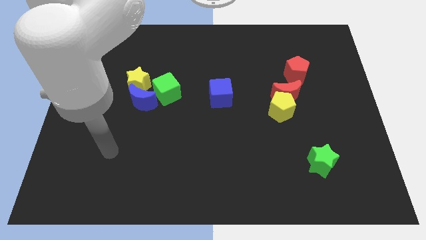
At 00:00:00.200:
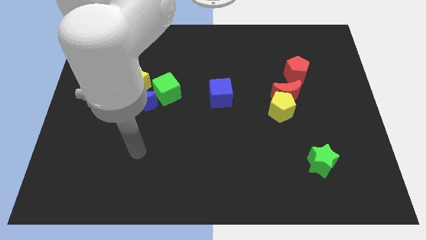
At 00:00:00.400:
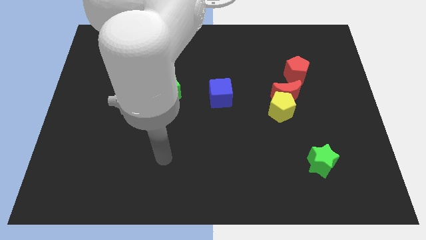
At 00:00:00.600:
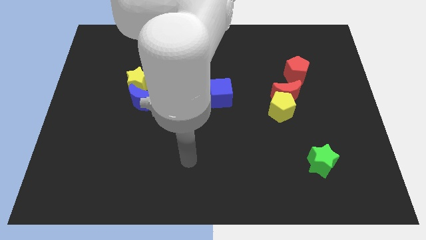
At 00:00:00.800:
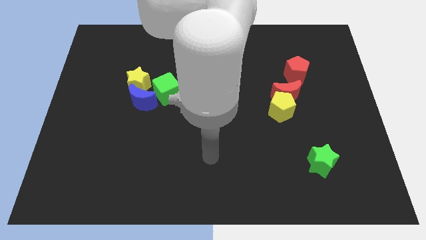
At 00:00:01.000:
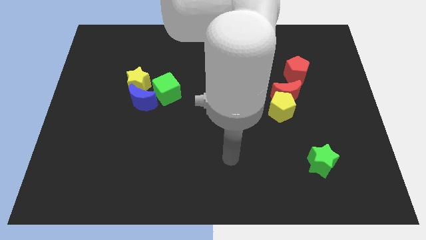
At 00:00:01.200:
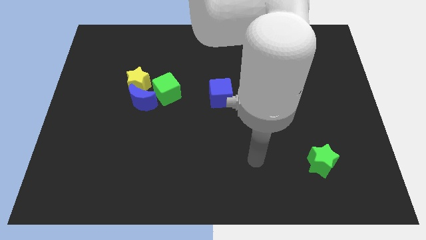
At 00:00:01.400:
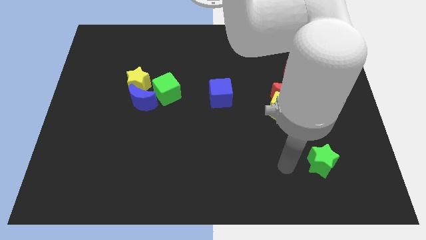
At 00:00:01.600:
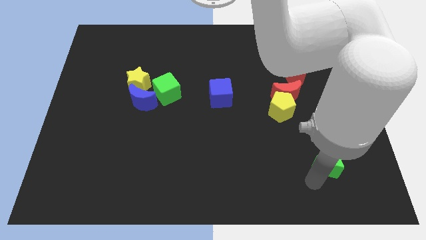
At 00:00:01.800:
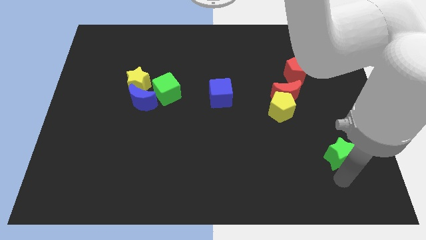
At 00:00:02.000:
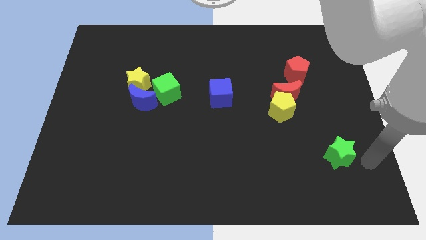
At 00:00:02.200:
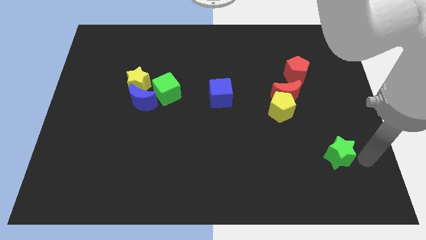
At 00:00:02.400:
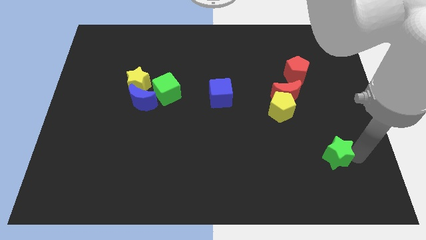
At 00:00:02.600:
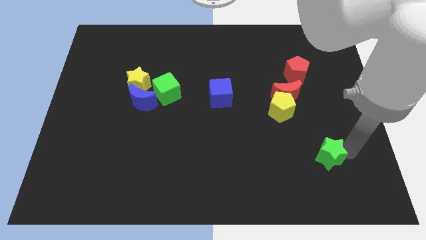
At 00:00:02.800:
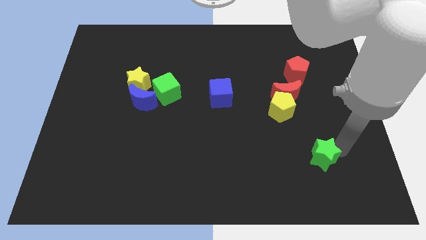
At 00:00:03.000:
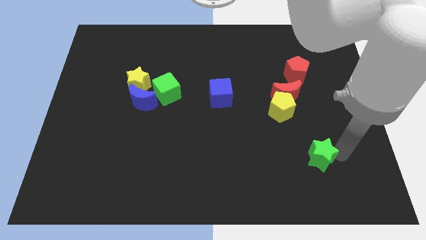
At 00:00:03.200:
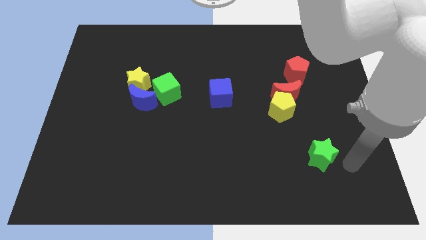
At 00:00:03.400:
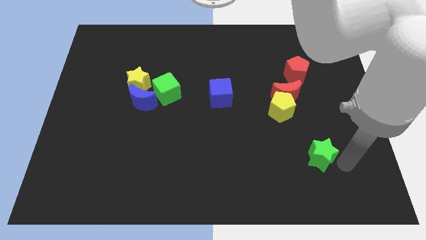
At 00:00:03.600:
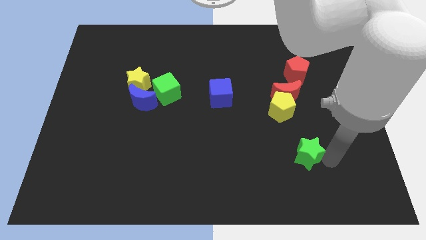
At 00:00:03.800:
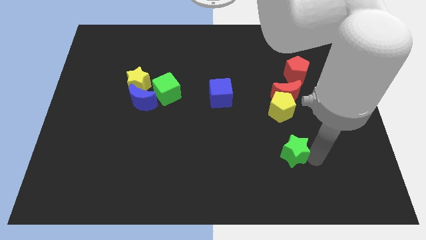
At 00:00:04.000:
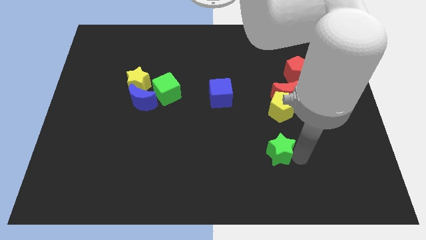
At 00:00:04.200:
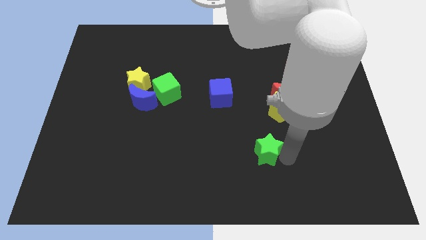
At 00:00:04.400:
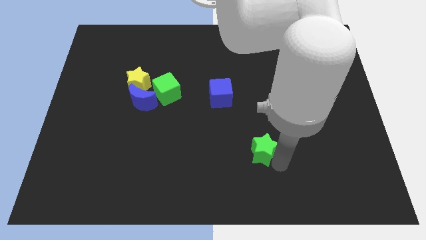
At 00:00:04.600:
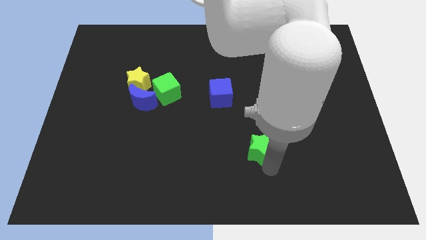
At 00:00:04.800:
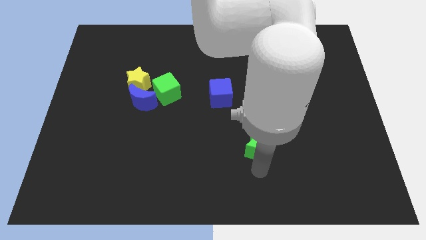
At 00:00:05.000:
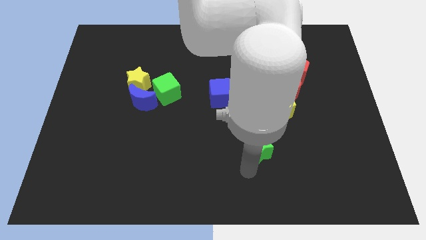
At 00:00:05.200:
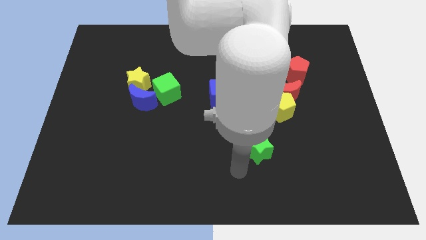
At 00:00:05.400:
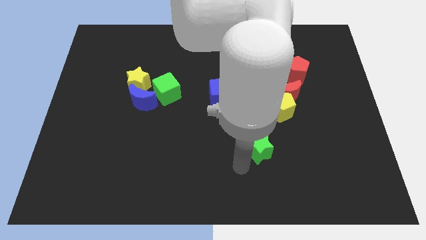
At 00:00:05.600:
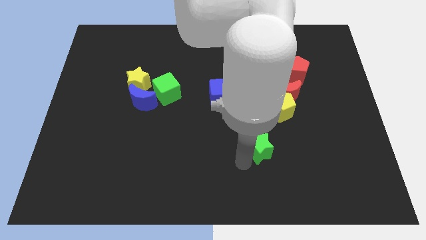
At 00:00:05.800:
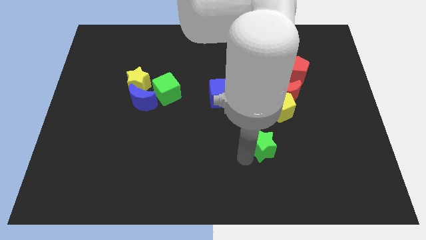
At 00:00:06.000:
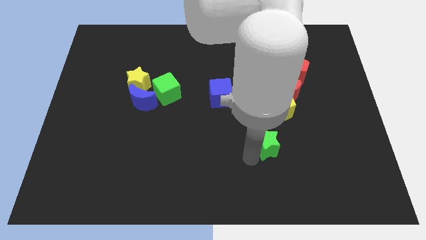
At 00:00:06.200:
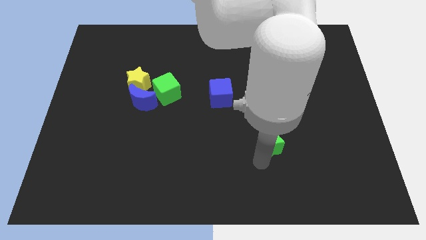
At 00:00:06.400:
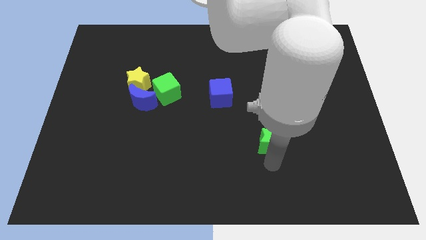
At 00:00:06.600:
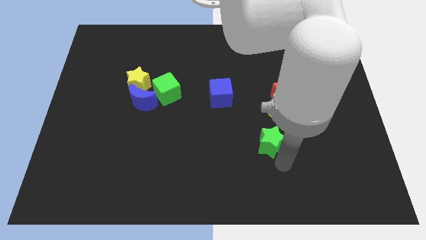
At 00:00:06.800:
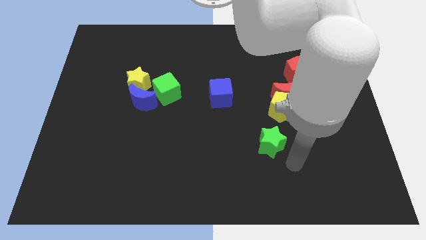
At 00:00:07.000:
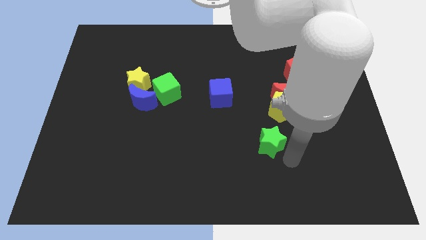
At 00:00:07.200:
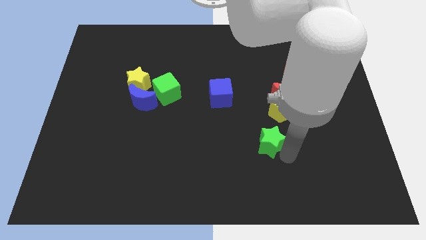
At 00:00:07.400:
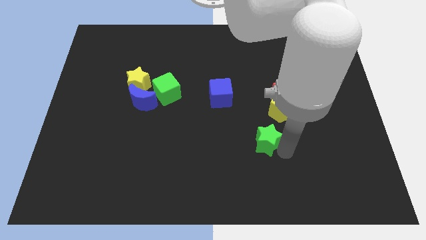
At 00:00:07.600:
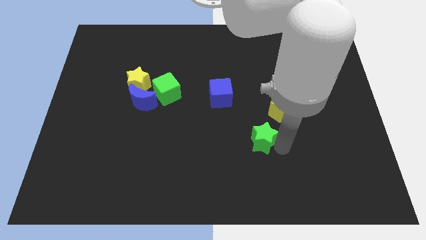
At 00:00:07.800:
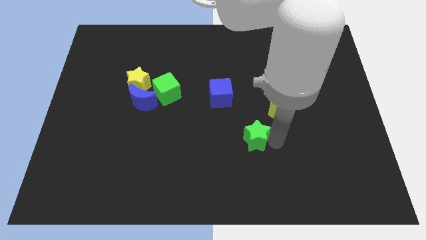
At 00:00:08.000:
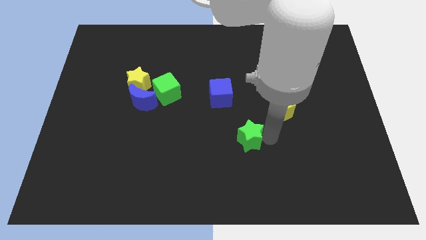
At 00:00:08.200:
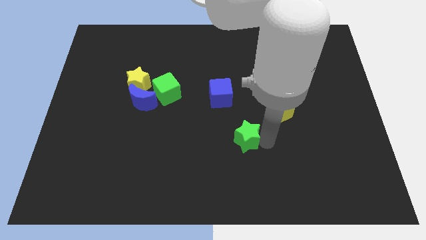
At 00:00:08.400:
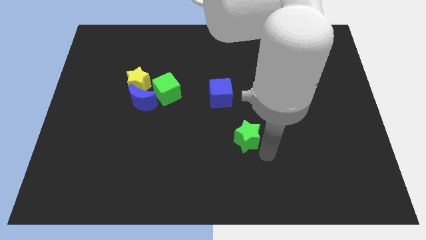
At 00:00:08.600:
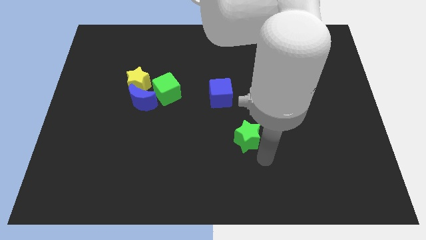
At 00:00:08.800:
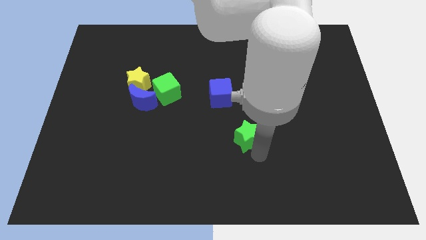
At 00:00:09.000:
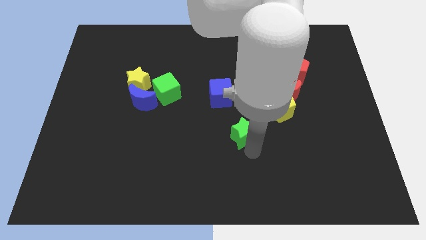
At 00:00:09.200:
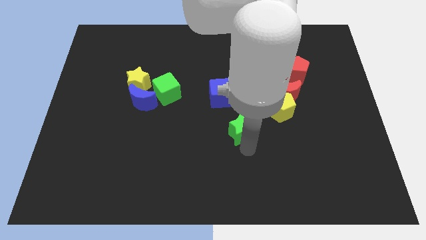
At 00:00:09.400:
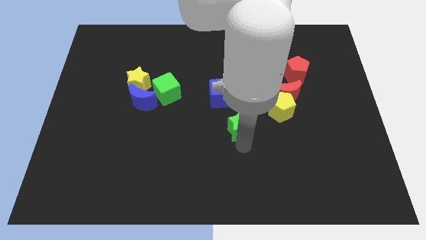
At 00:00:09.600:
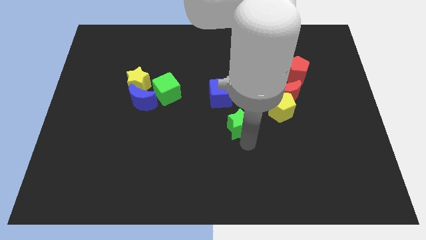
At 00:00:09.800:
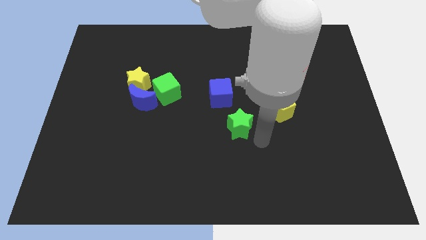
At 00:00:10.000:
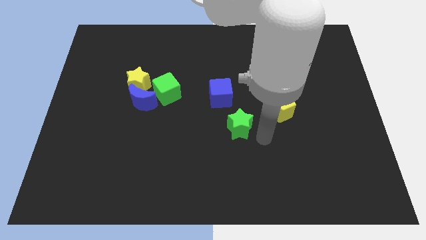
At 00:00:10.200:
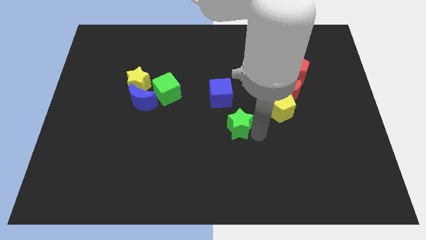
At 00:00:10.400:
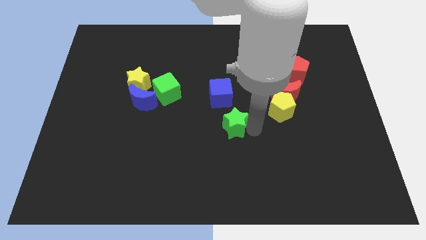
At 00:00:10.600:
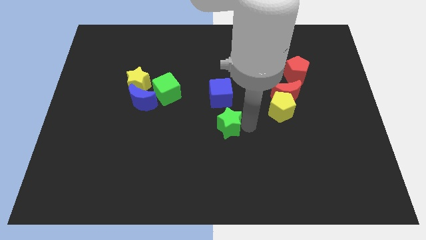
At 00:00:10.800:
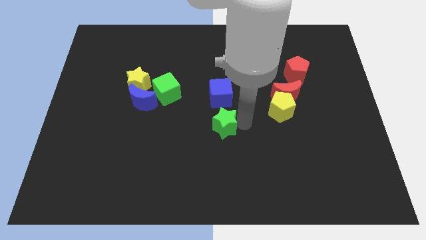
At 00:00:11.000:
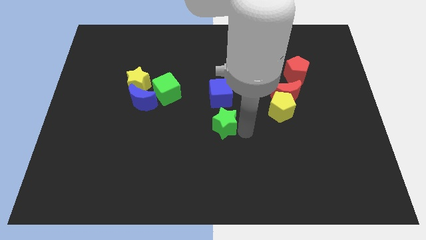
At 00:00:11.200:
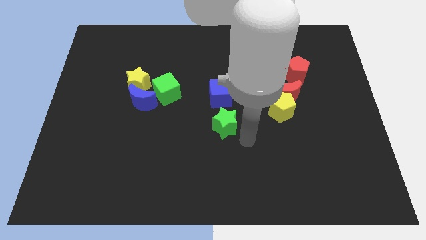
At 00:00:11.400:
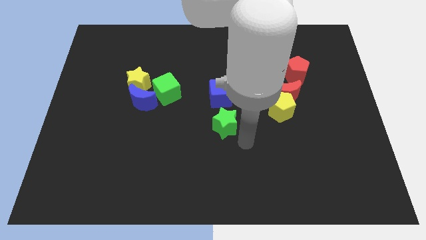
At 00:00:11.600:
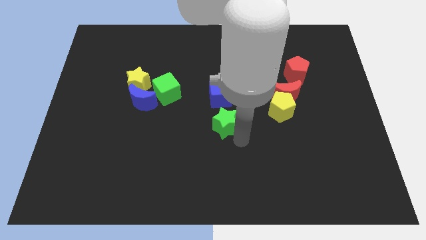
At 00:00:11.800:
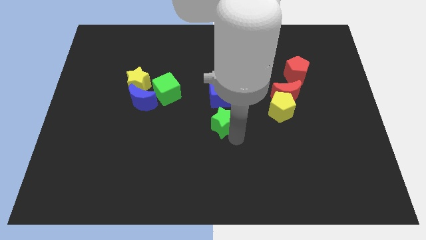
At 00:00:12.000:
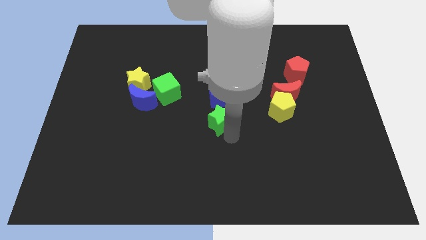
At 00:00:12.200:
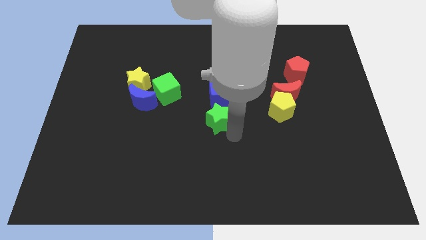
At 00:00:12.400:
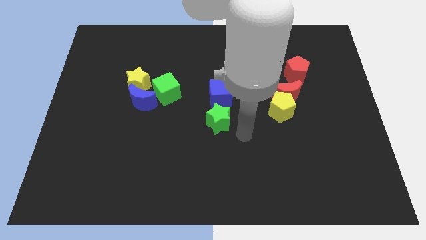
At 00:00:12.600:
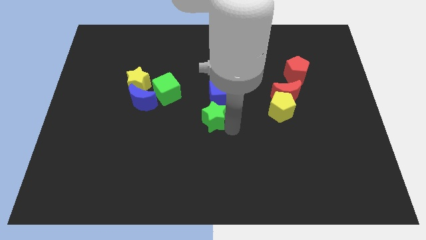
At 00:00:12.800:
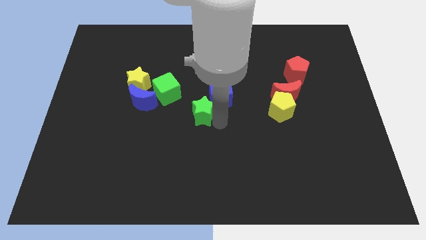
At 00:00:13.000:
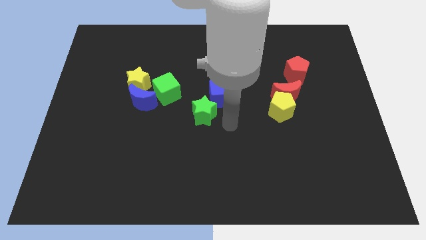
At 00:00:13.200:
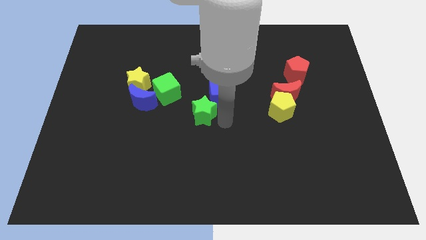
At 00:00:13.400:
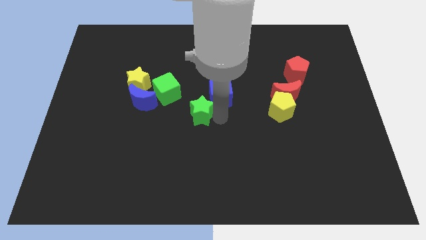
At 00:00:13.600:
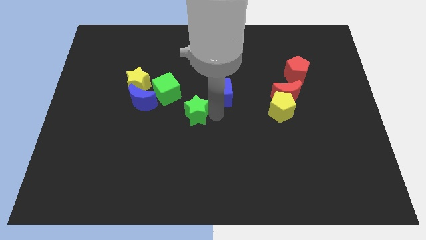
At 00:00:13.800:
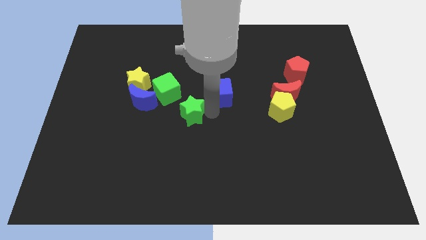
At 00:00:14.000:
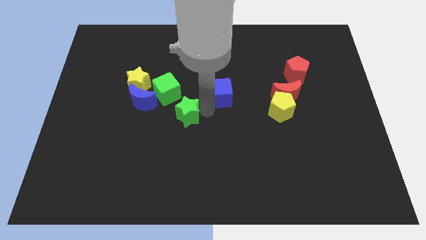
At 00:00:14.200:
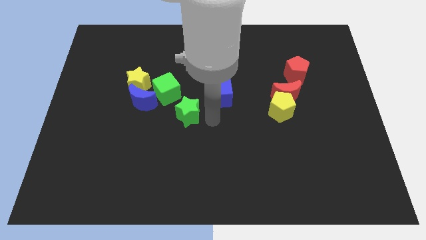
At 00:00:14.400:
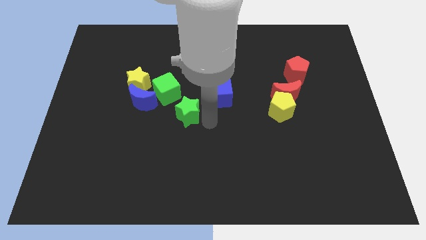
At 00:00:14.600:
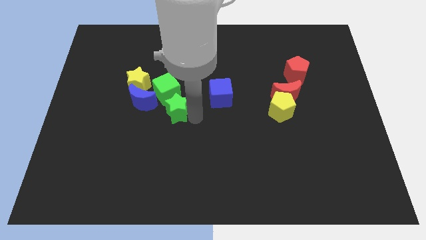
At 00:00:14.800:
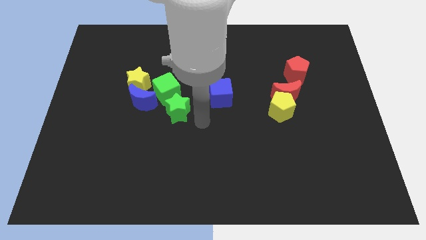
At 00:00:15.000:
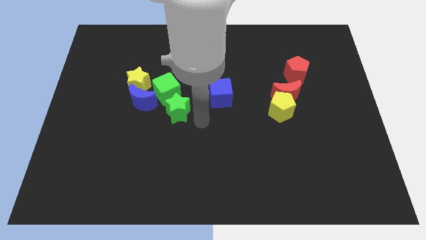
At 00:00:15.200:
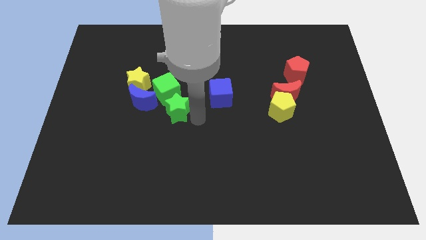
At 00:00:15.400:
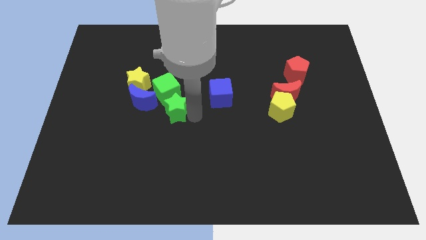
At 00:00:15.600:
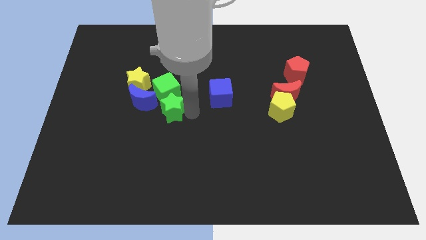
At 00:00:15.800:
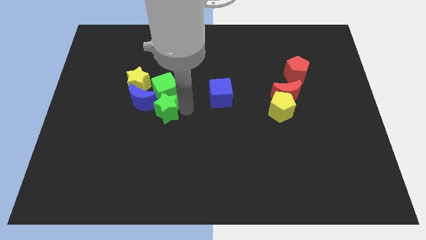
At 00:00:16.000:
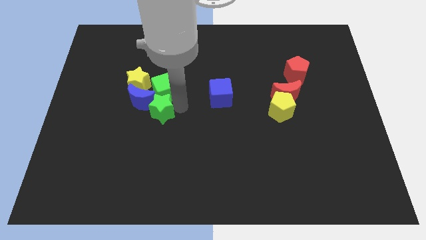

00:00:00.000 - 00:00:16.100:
slide the green star next to the blue moon
